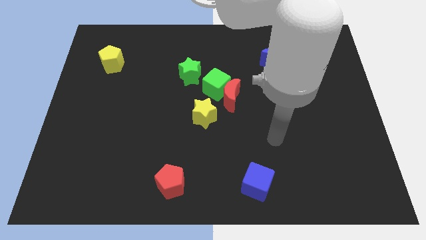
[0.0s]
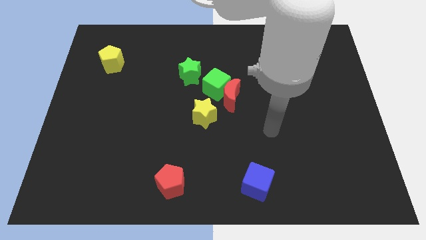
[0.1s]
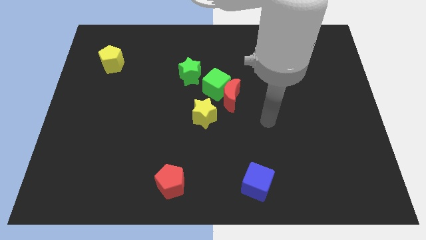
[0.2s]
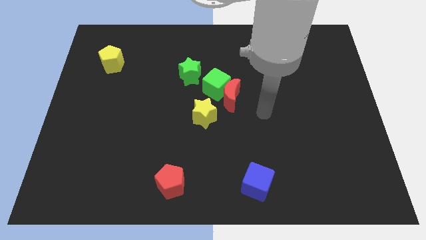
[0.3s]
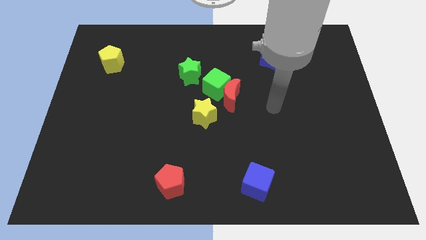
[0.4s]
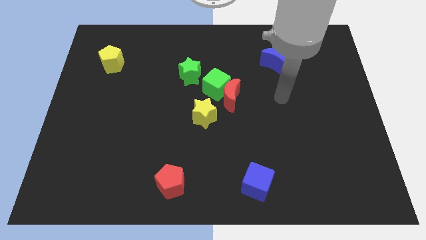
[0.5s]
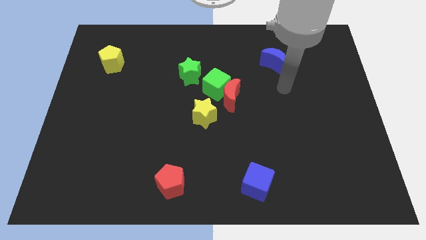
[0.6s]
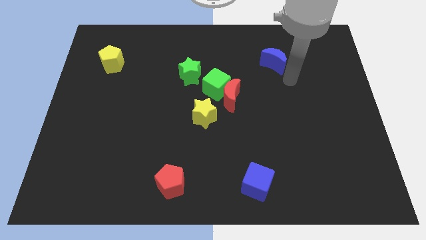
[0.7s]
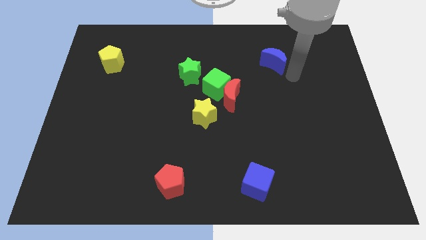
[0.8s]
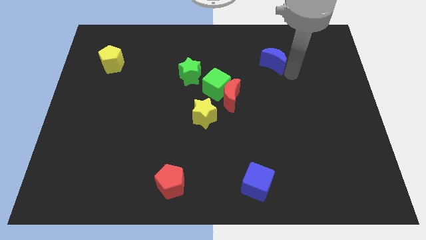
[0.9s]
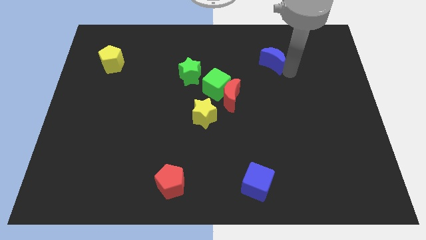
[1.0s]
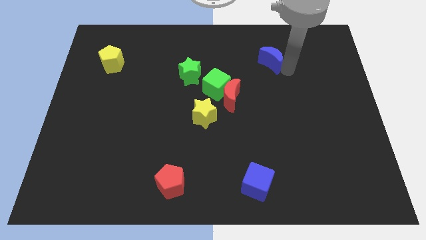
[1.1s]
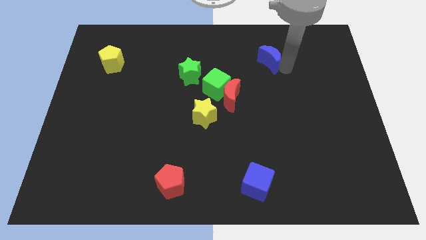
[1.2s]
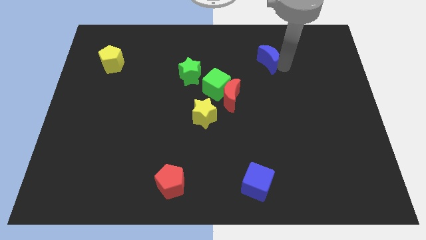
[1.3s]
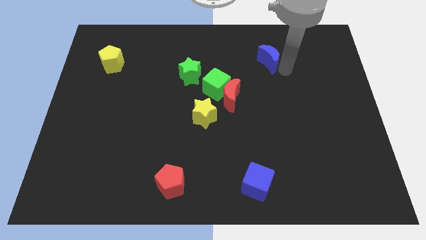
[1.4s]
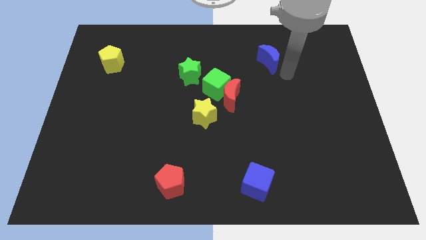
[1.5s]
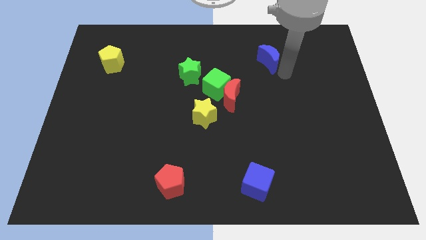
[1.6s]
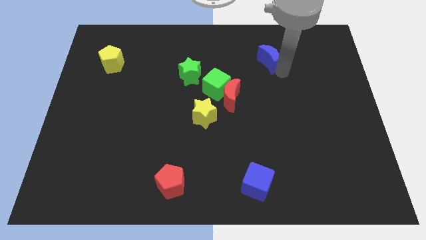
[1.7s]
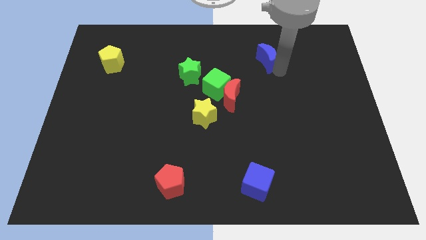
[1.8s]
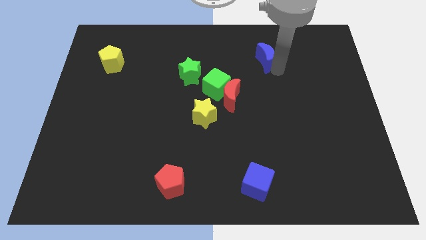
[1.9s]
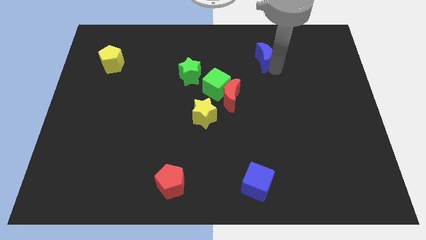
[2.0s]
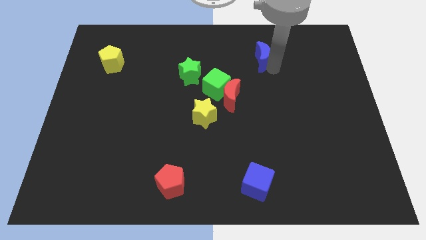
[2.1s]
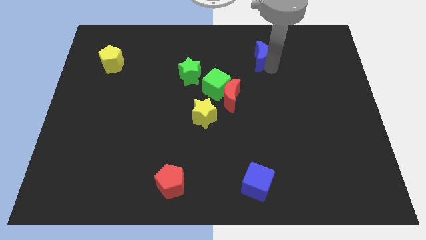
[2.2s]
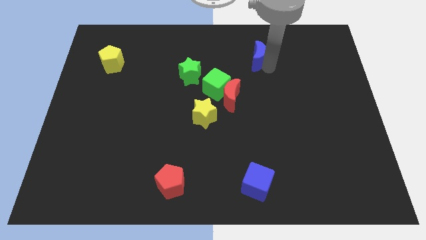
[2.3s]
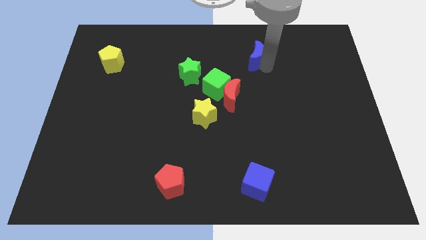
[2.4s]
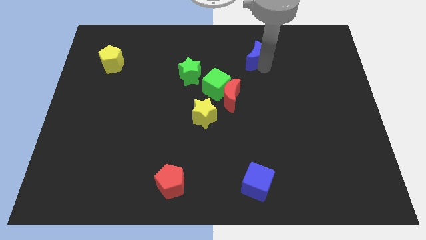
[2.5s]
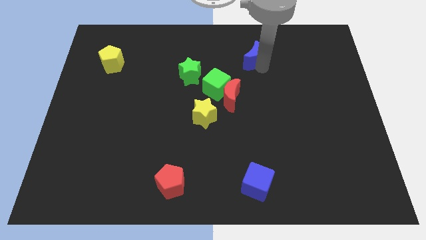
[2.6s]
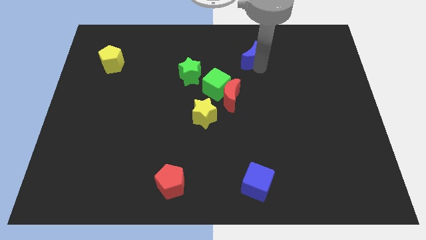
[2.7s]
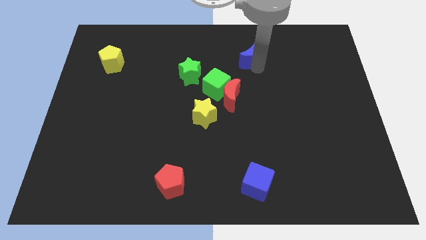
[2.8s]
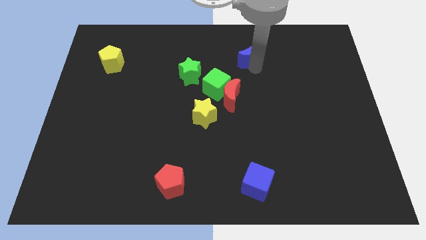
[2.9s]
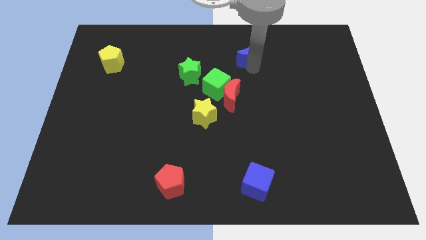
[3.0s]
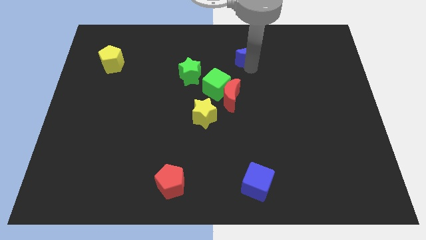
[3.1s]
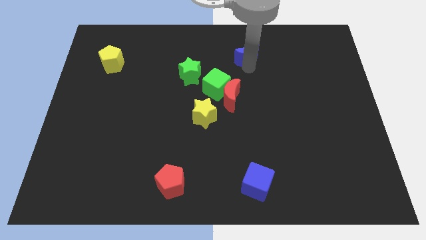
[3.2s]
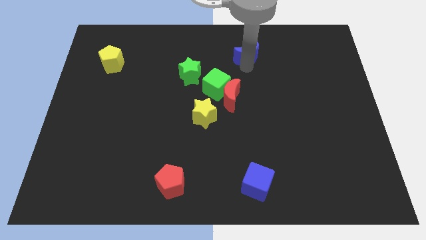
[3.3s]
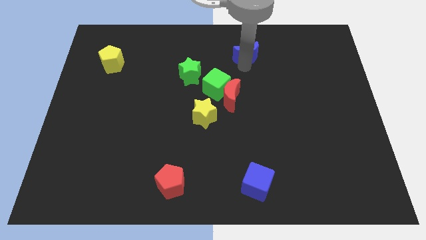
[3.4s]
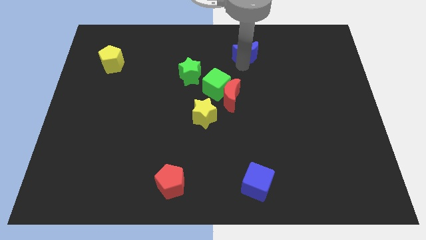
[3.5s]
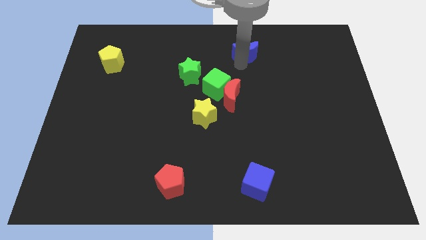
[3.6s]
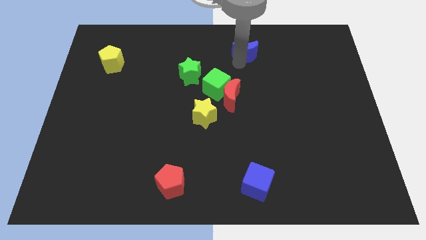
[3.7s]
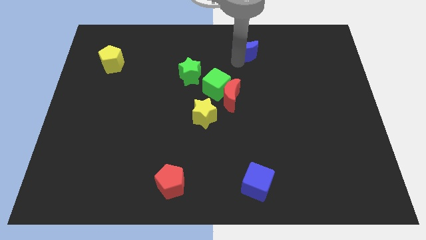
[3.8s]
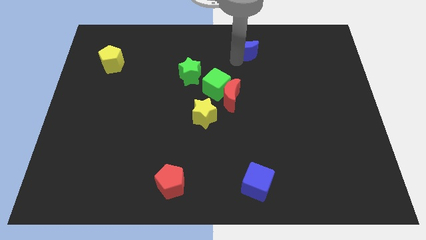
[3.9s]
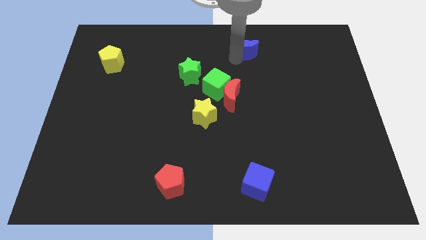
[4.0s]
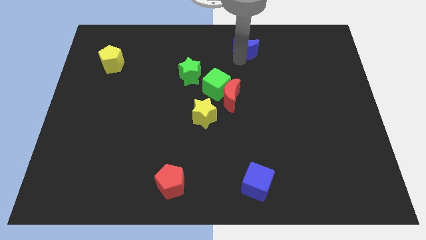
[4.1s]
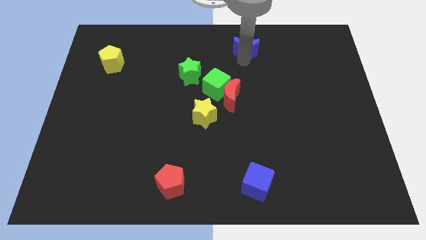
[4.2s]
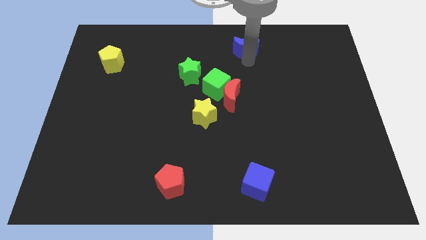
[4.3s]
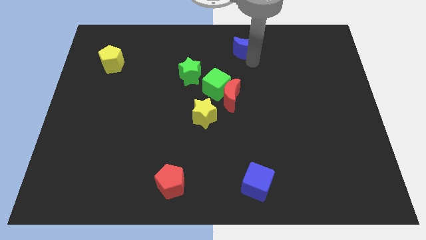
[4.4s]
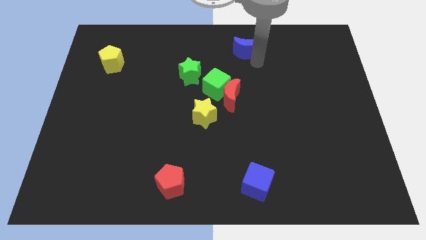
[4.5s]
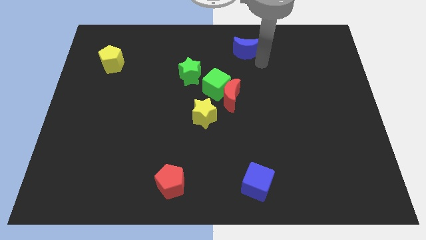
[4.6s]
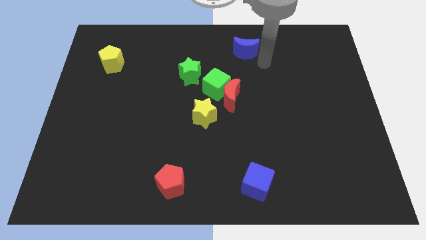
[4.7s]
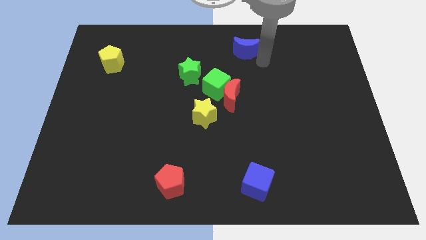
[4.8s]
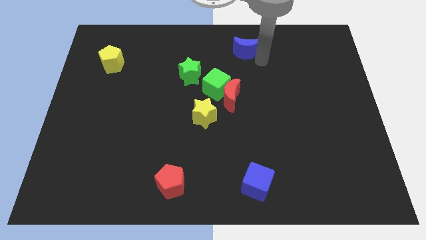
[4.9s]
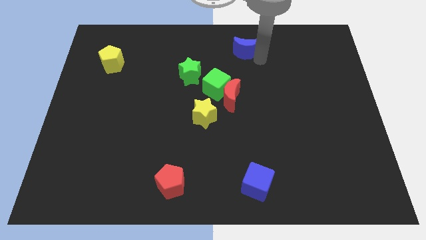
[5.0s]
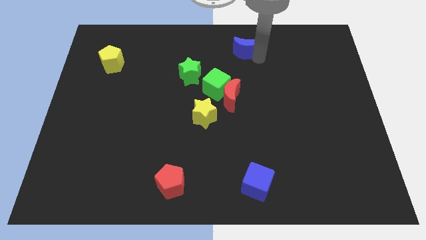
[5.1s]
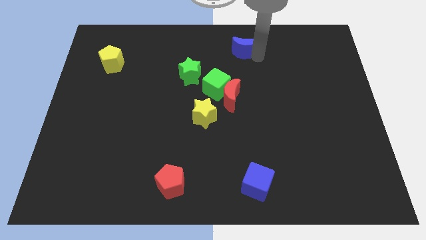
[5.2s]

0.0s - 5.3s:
put the blue moon to the top side

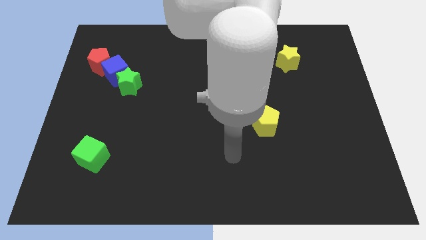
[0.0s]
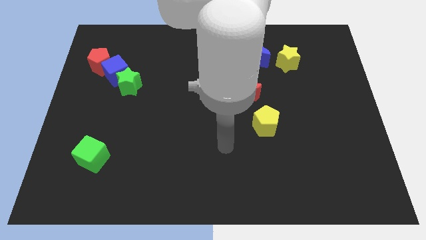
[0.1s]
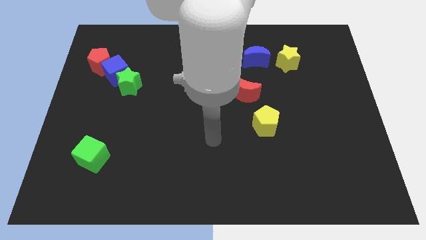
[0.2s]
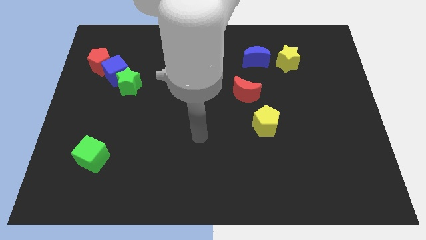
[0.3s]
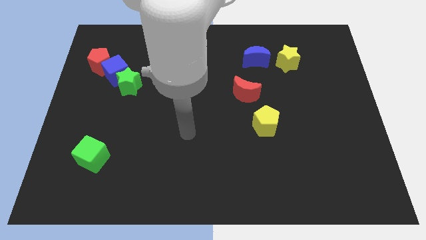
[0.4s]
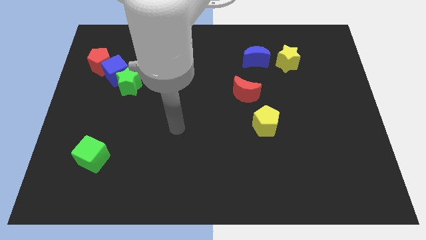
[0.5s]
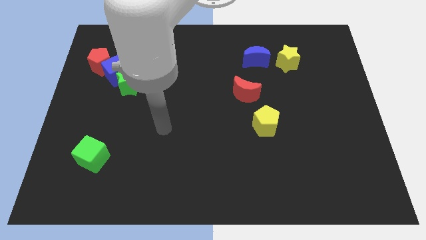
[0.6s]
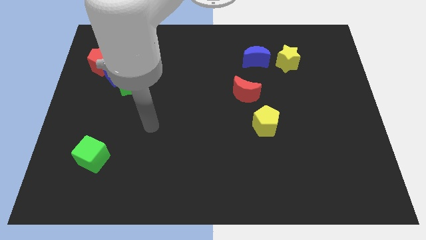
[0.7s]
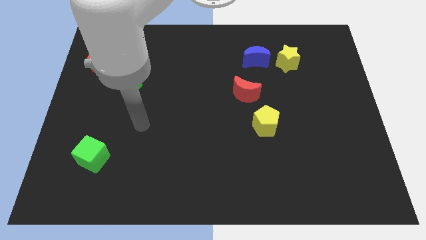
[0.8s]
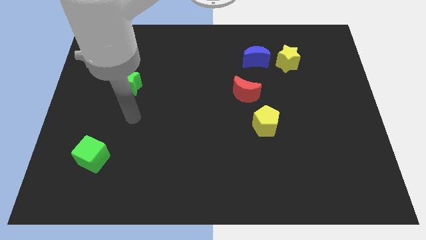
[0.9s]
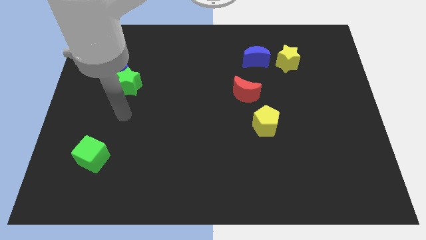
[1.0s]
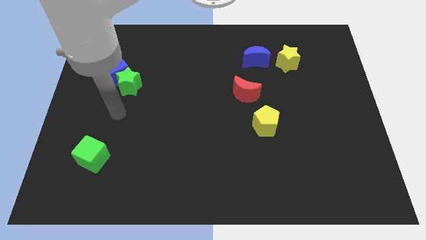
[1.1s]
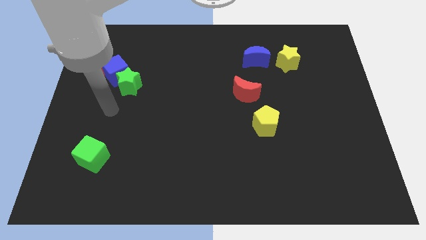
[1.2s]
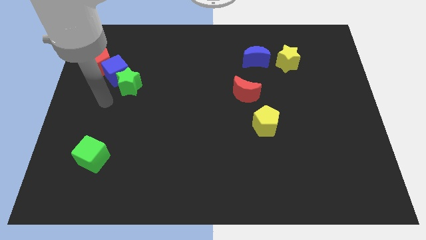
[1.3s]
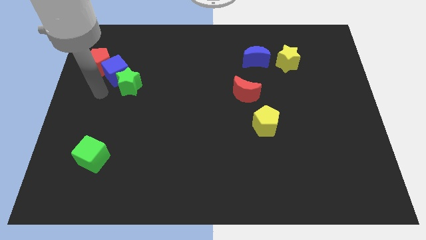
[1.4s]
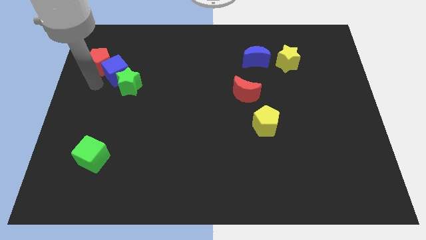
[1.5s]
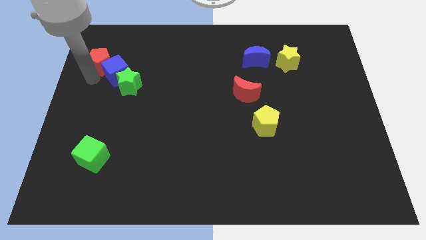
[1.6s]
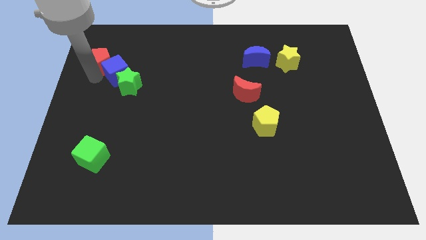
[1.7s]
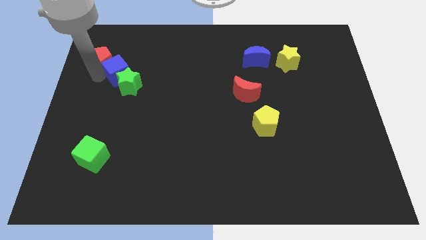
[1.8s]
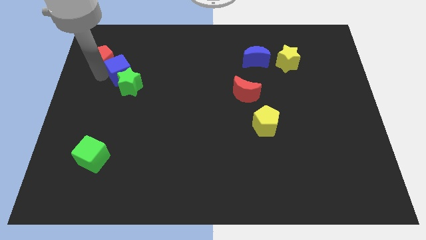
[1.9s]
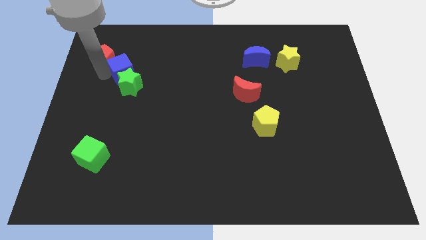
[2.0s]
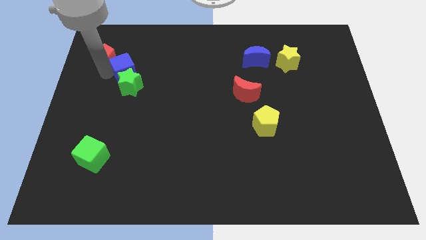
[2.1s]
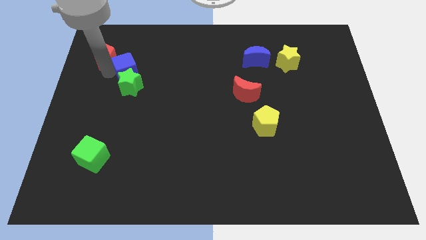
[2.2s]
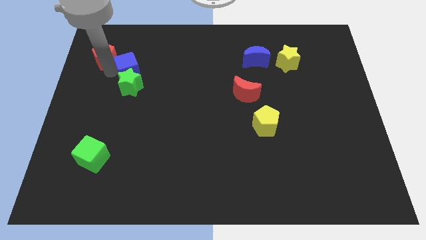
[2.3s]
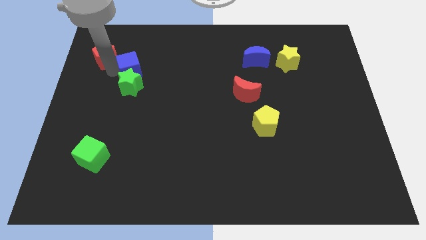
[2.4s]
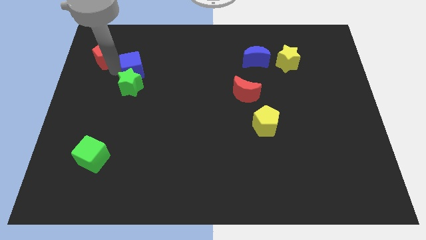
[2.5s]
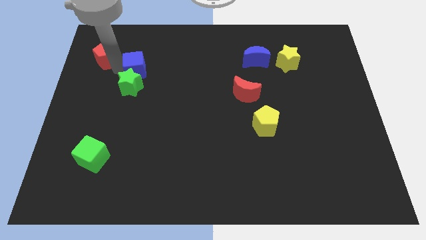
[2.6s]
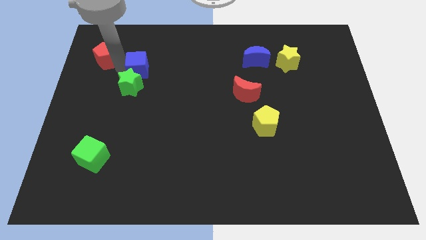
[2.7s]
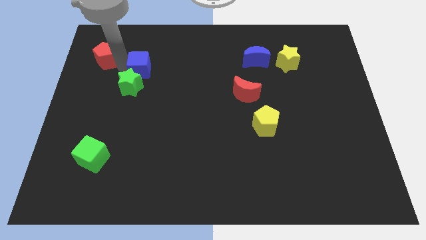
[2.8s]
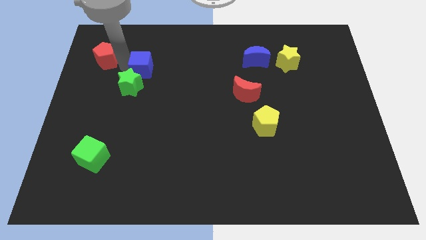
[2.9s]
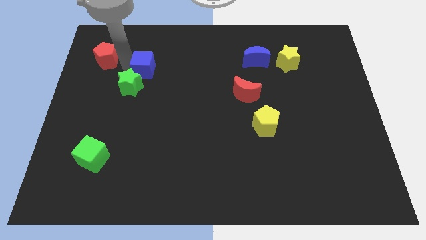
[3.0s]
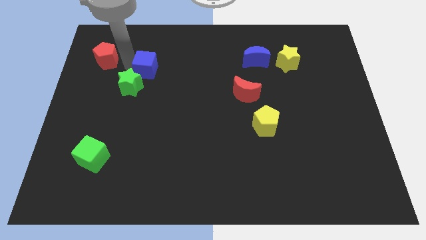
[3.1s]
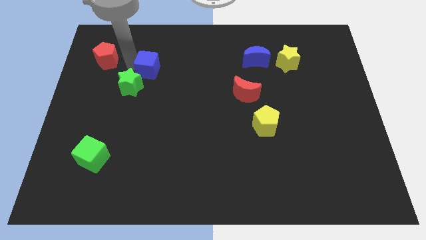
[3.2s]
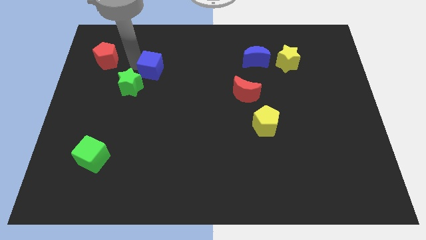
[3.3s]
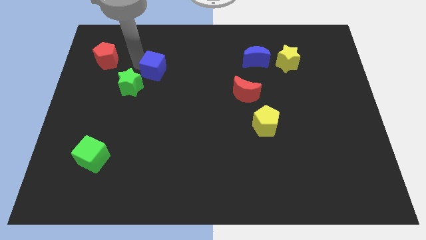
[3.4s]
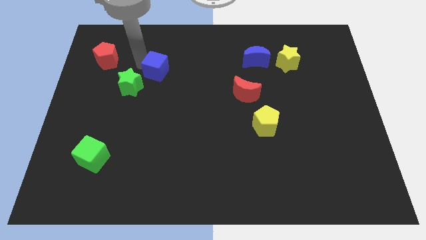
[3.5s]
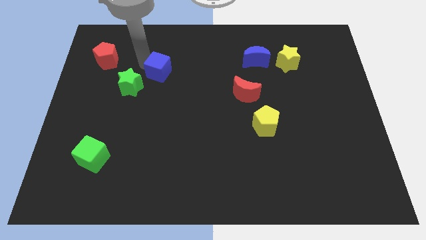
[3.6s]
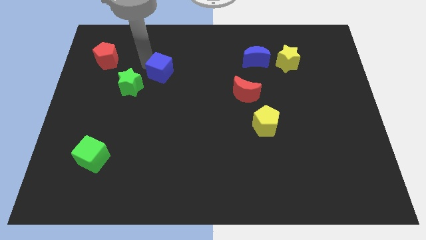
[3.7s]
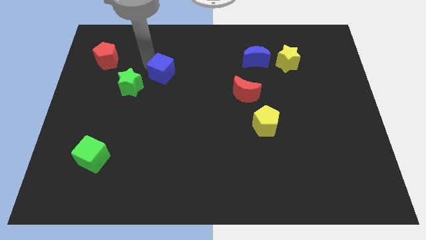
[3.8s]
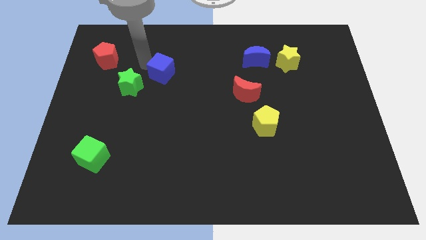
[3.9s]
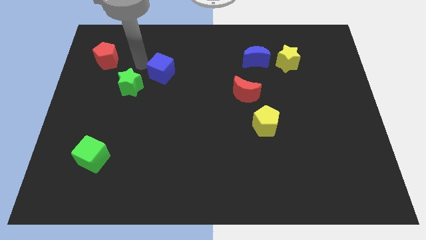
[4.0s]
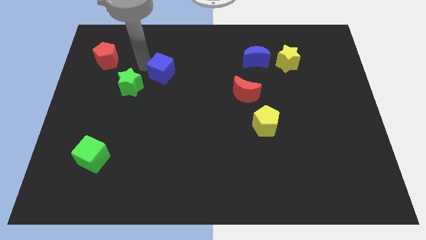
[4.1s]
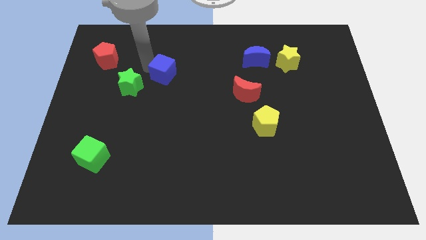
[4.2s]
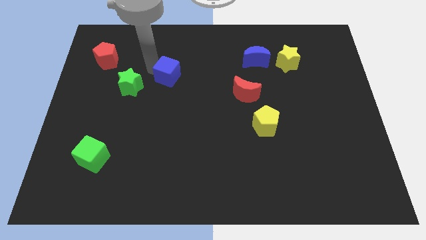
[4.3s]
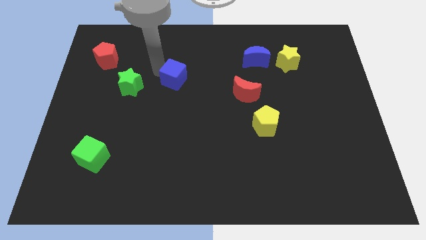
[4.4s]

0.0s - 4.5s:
move the blue cube to the middle
